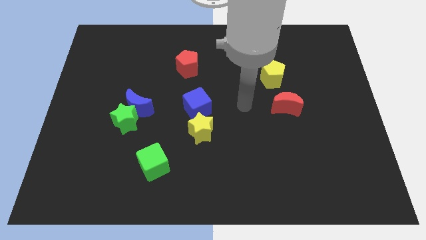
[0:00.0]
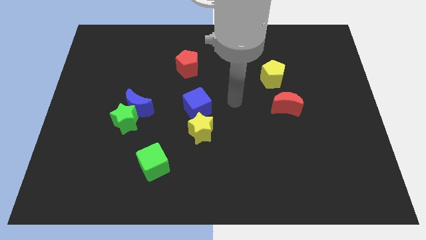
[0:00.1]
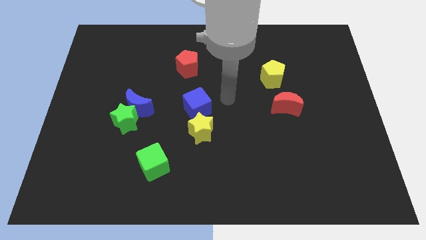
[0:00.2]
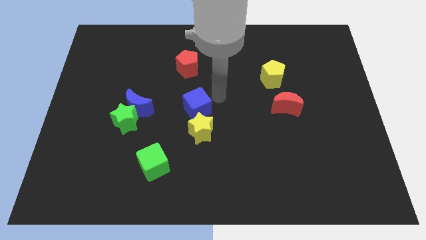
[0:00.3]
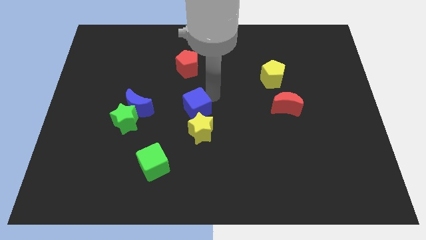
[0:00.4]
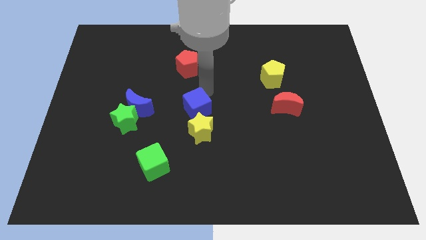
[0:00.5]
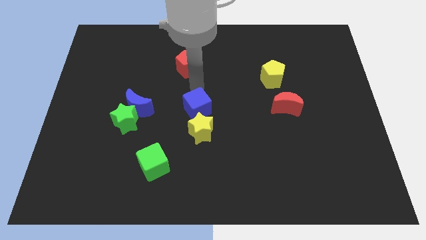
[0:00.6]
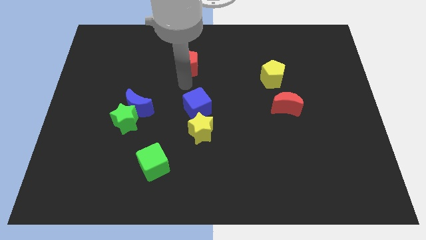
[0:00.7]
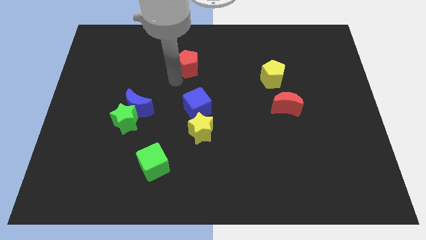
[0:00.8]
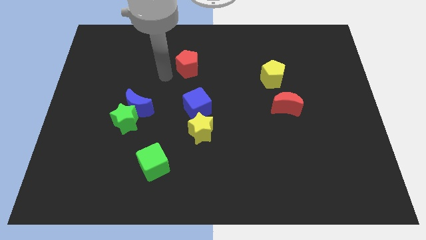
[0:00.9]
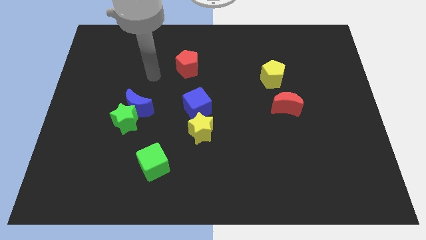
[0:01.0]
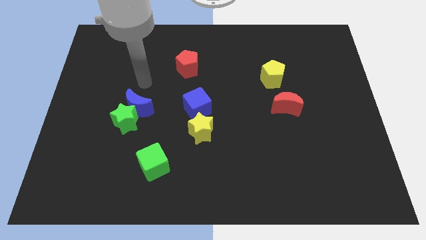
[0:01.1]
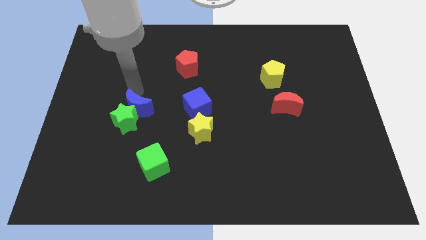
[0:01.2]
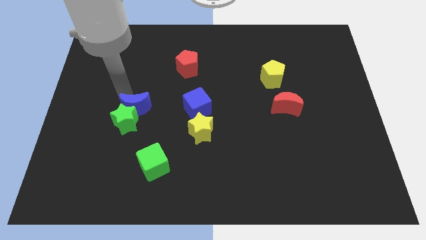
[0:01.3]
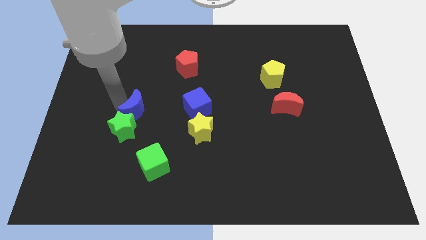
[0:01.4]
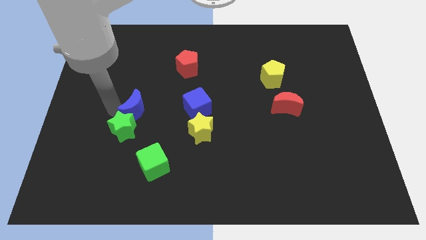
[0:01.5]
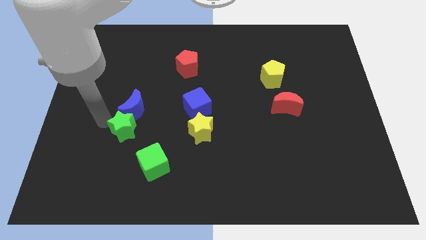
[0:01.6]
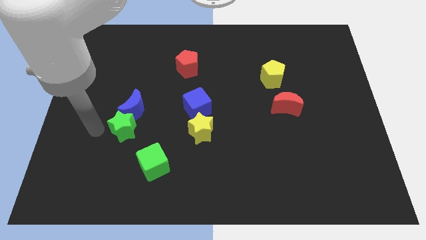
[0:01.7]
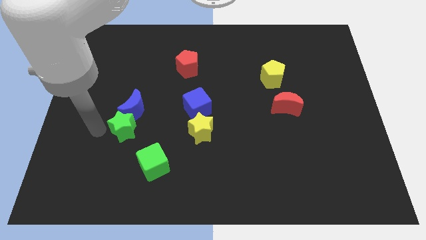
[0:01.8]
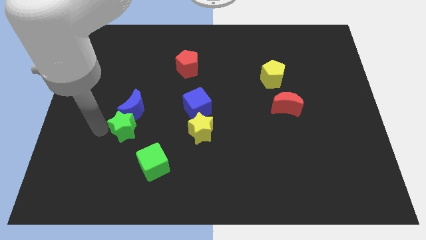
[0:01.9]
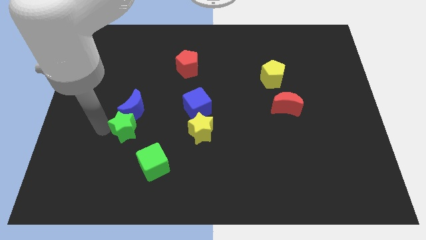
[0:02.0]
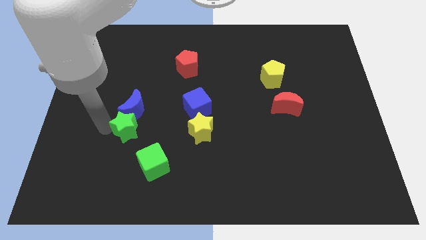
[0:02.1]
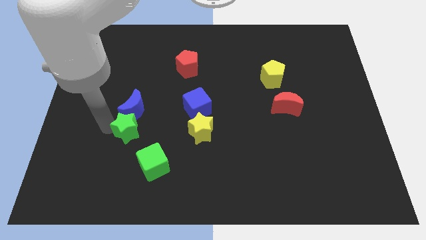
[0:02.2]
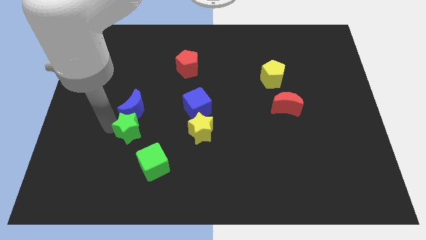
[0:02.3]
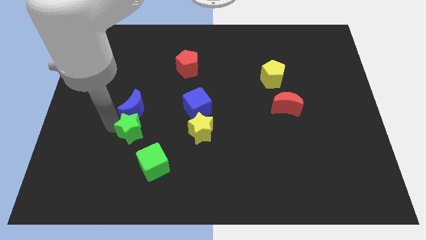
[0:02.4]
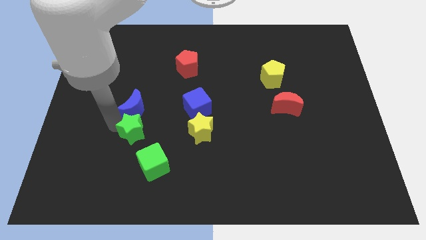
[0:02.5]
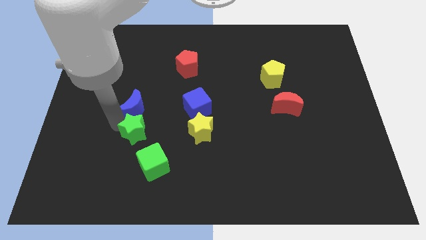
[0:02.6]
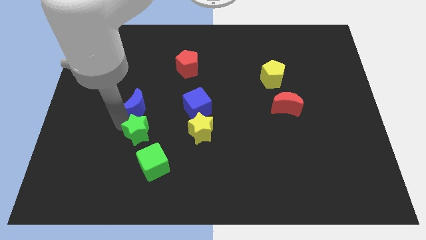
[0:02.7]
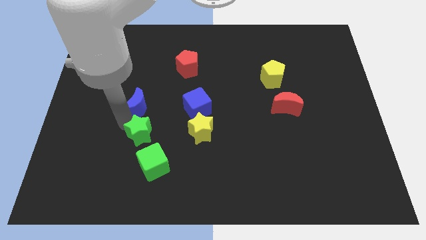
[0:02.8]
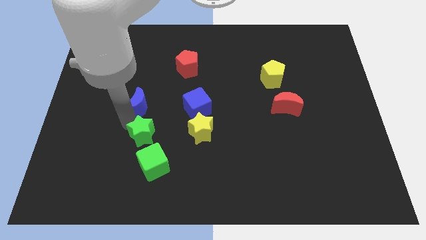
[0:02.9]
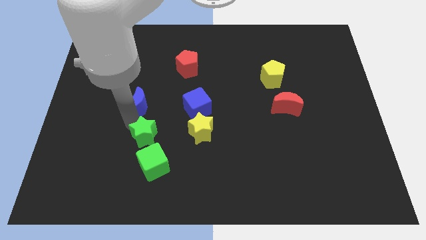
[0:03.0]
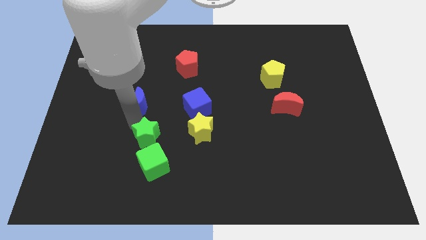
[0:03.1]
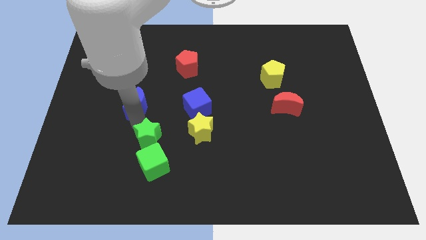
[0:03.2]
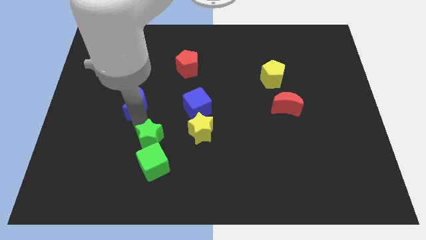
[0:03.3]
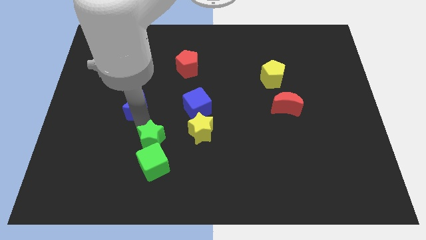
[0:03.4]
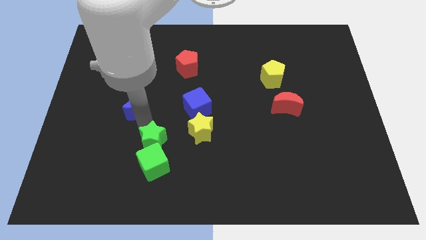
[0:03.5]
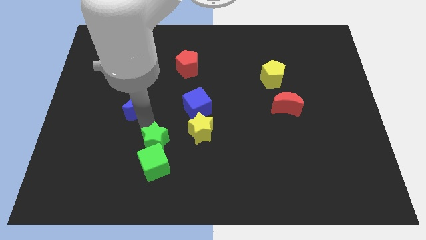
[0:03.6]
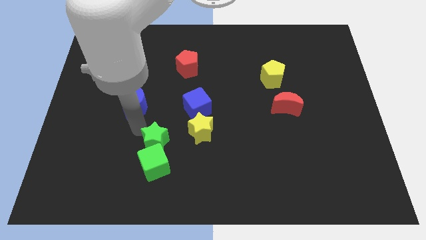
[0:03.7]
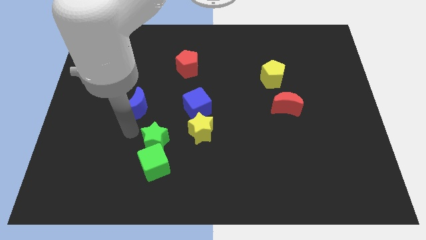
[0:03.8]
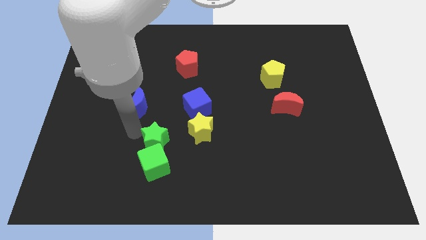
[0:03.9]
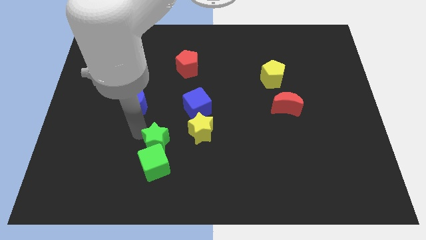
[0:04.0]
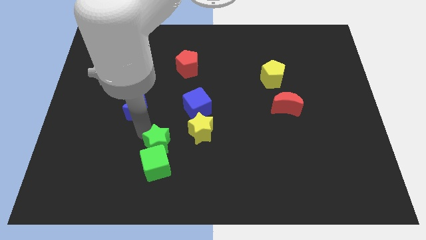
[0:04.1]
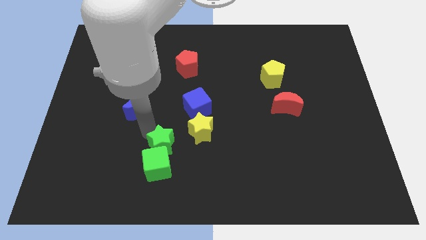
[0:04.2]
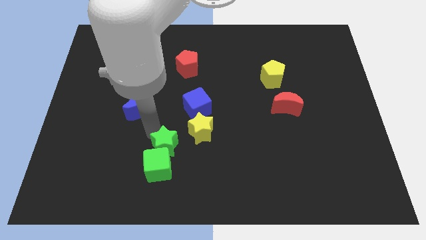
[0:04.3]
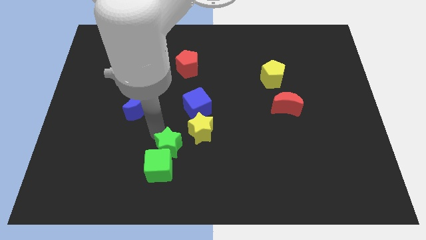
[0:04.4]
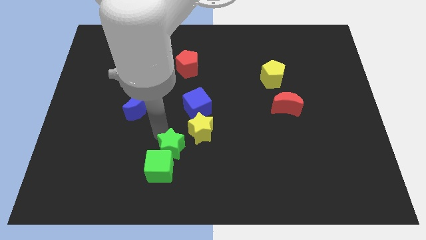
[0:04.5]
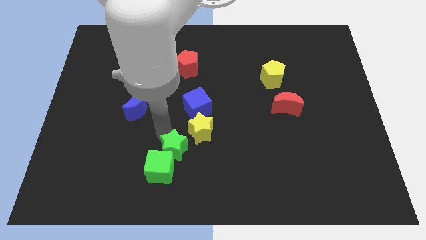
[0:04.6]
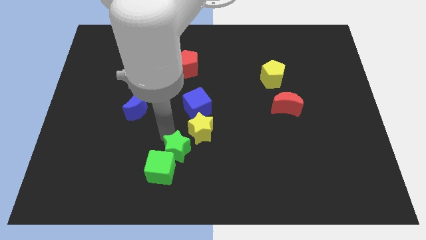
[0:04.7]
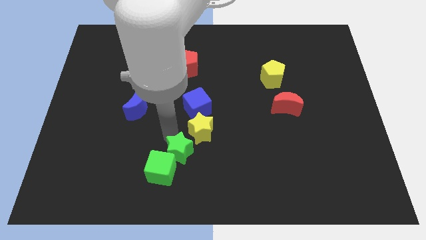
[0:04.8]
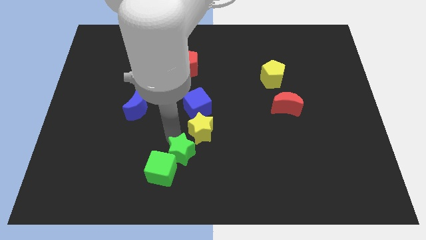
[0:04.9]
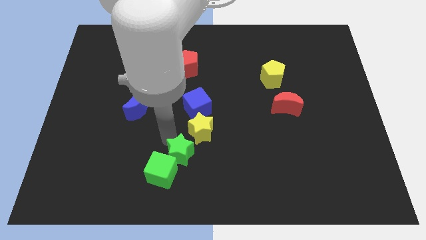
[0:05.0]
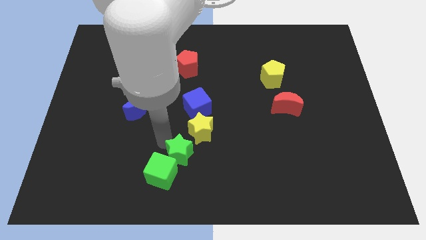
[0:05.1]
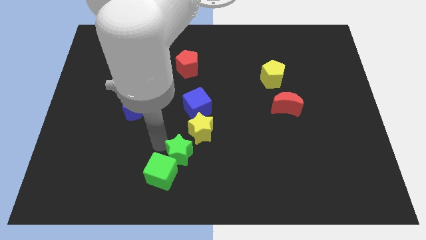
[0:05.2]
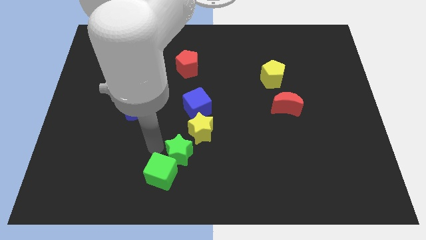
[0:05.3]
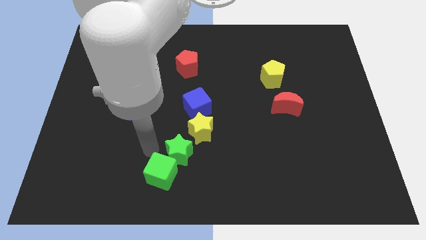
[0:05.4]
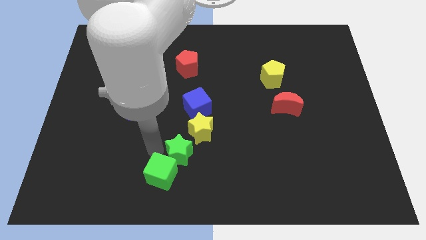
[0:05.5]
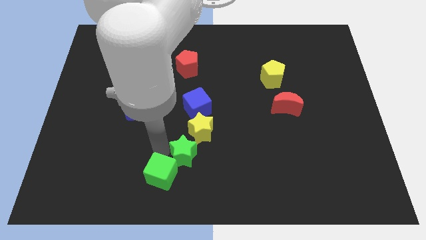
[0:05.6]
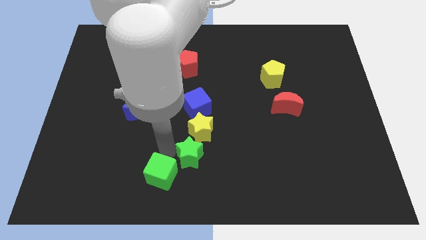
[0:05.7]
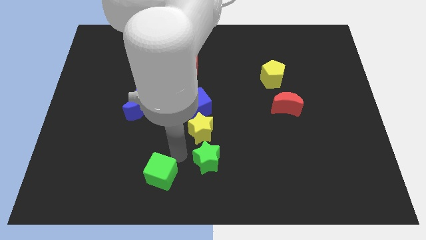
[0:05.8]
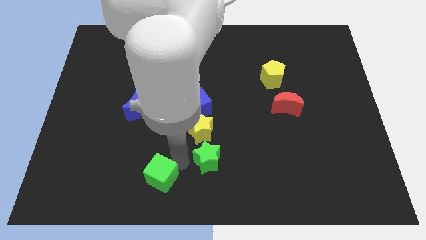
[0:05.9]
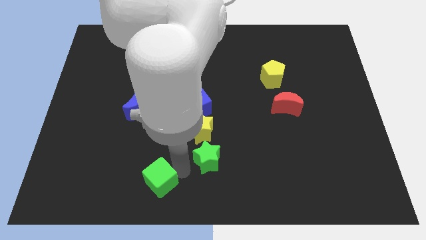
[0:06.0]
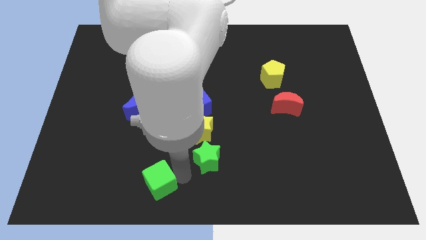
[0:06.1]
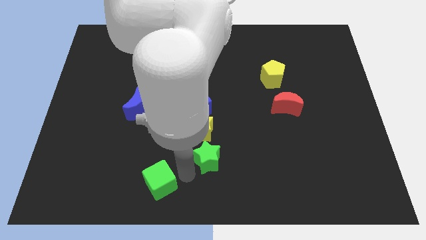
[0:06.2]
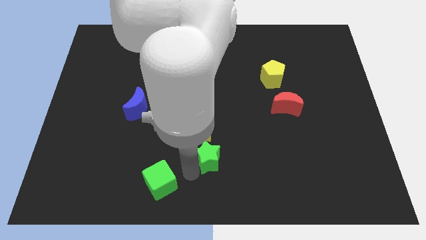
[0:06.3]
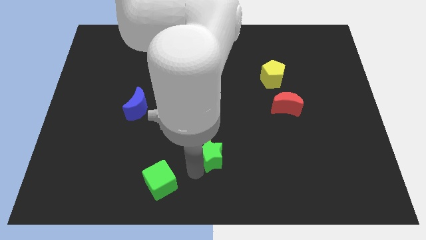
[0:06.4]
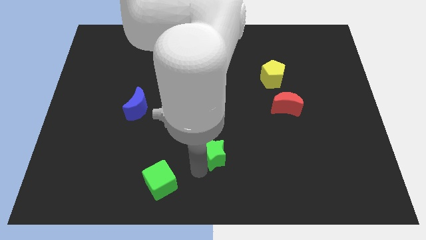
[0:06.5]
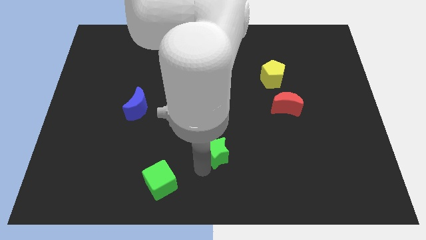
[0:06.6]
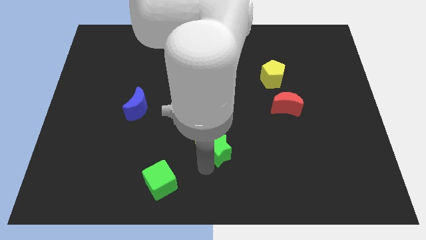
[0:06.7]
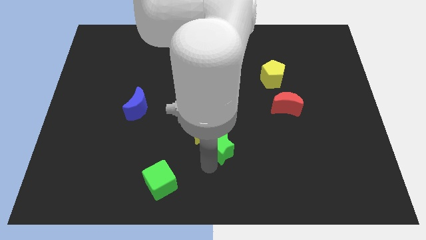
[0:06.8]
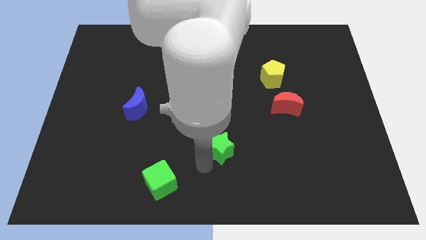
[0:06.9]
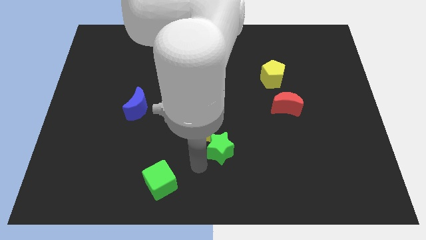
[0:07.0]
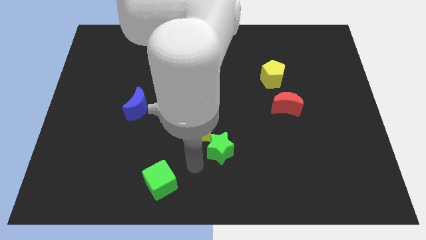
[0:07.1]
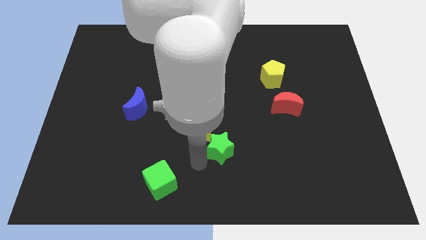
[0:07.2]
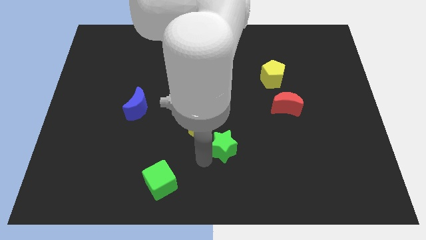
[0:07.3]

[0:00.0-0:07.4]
push the green star to the right

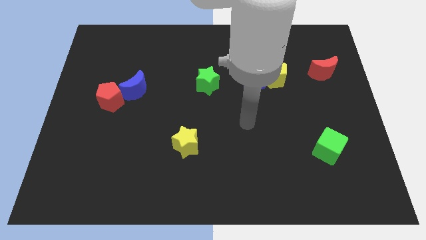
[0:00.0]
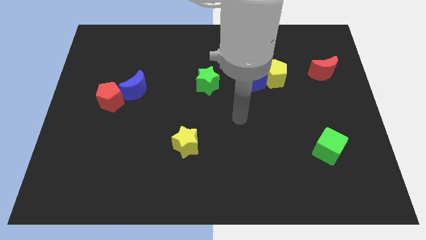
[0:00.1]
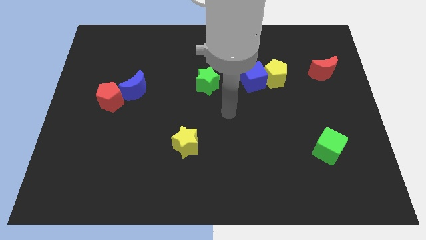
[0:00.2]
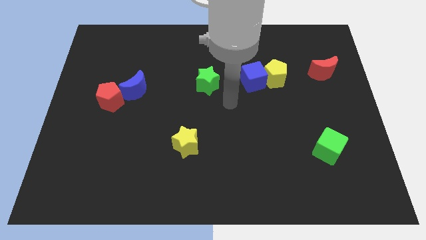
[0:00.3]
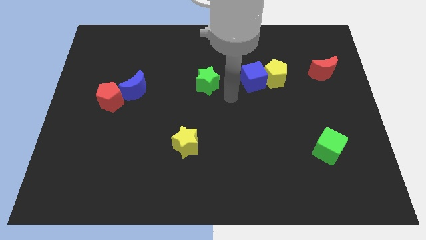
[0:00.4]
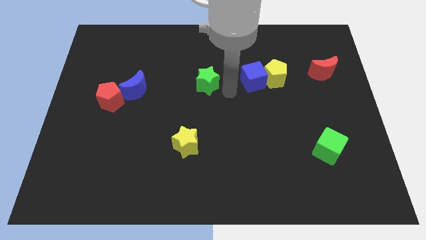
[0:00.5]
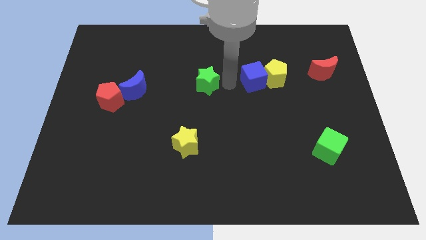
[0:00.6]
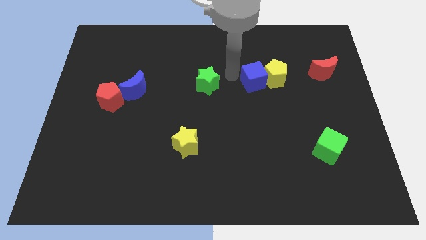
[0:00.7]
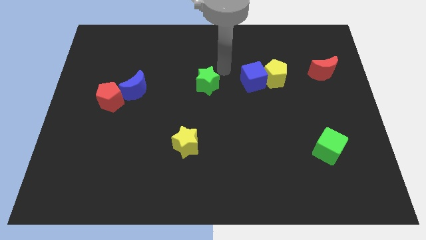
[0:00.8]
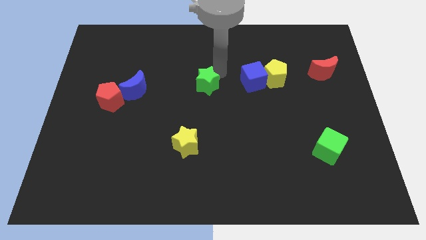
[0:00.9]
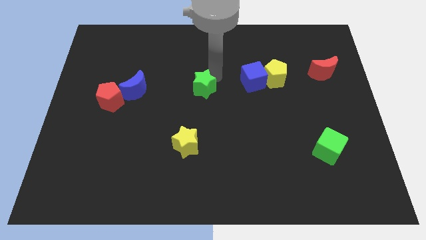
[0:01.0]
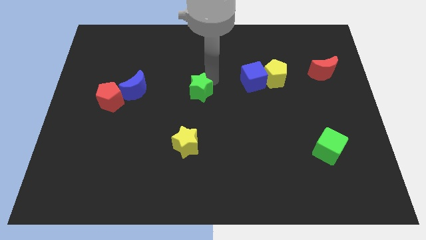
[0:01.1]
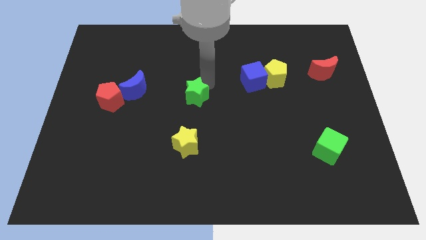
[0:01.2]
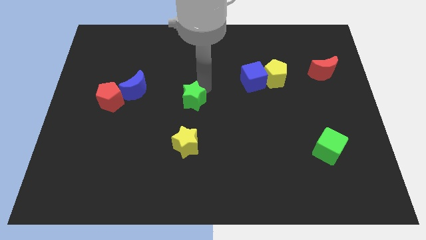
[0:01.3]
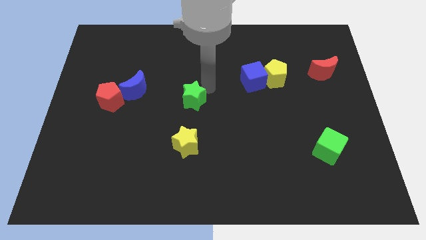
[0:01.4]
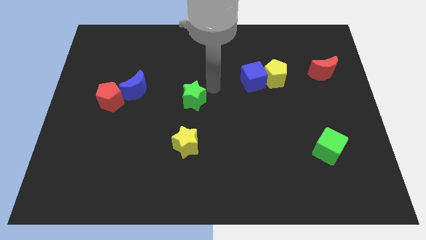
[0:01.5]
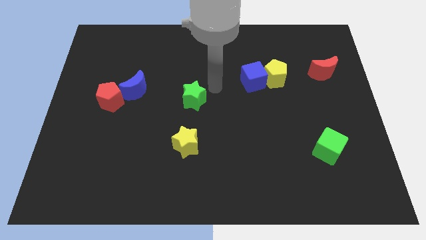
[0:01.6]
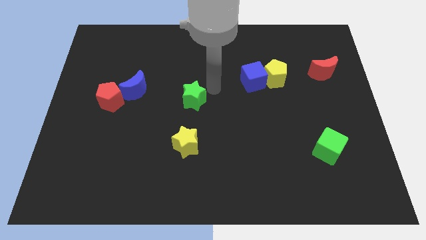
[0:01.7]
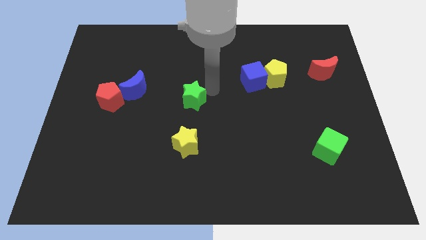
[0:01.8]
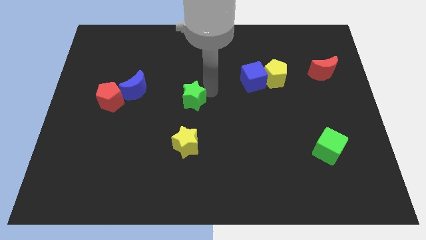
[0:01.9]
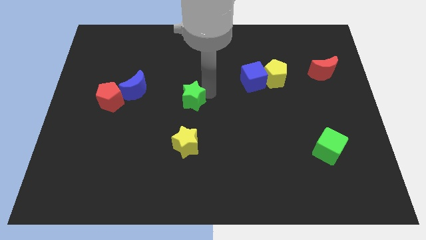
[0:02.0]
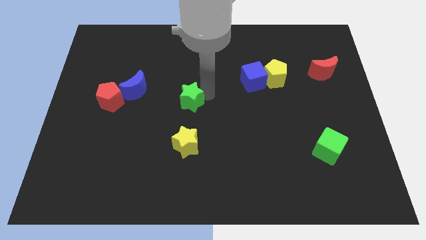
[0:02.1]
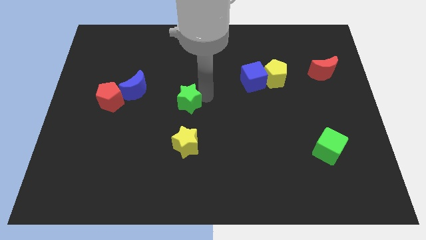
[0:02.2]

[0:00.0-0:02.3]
slide the green star diagonally down and to the left a little
